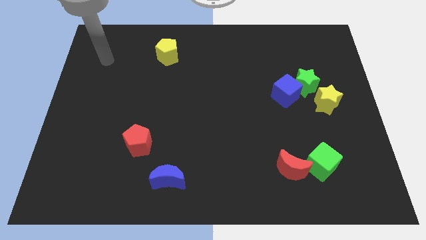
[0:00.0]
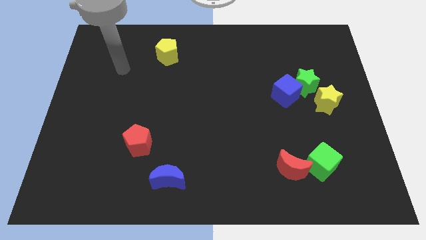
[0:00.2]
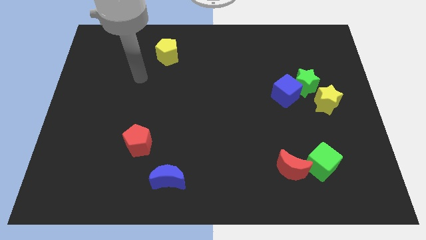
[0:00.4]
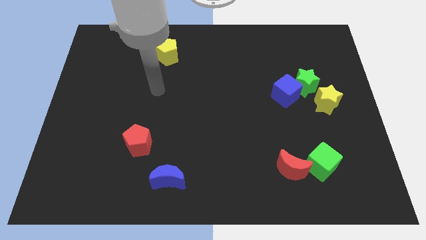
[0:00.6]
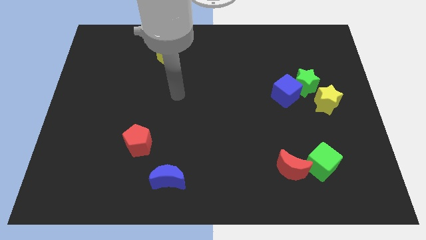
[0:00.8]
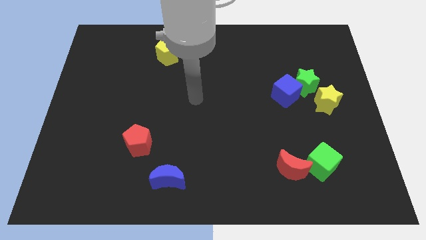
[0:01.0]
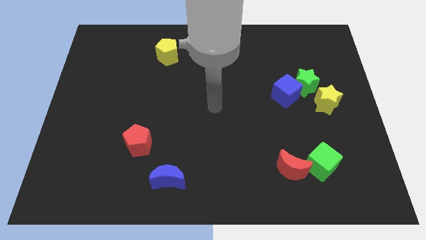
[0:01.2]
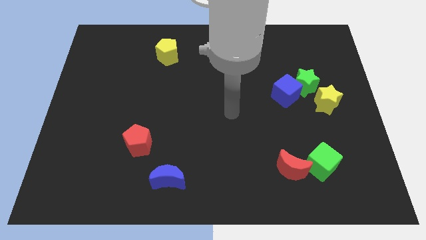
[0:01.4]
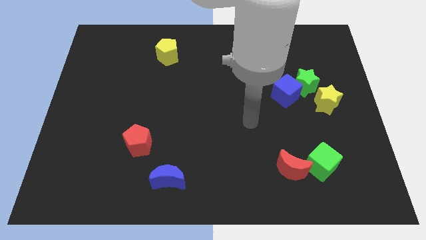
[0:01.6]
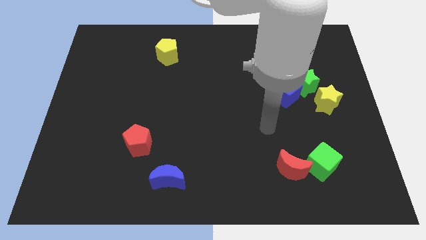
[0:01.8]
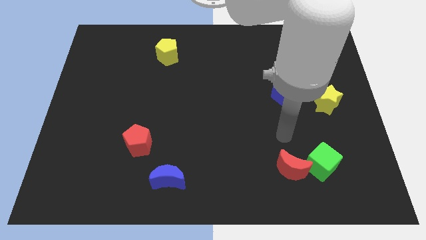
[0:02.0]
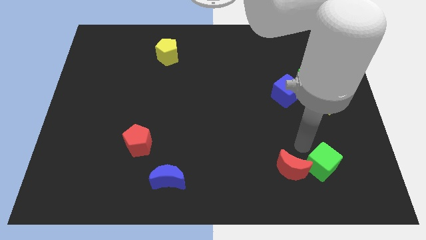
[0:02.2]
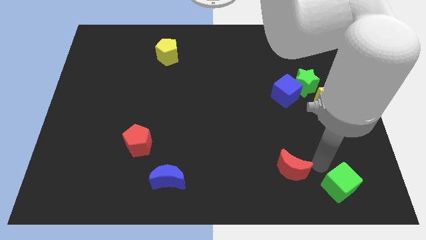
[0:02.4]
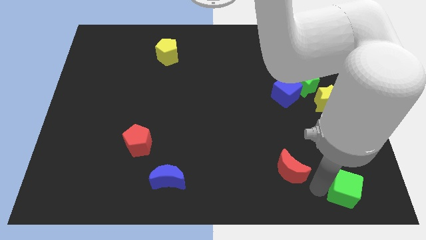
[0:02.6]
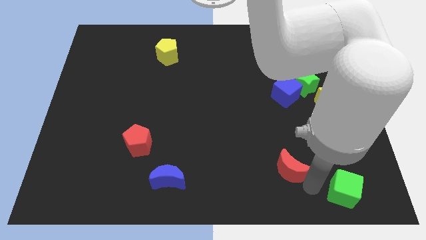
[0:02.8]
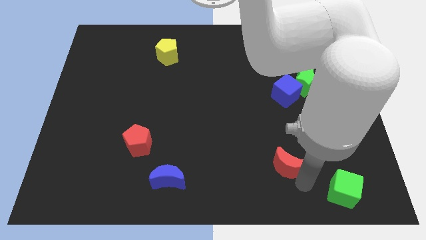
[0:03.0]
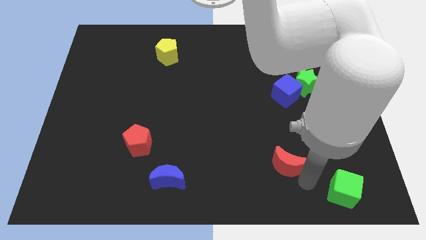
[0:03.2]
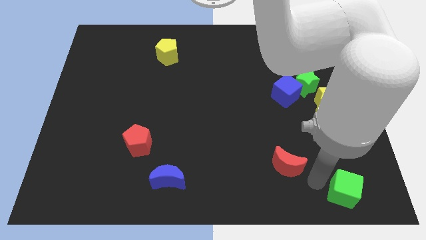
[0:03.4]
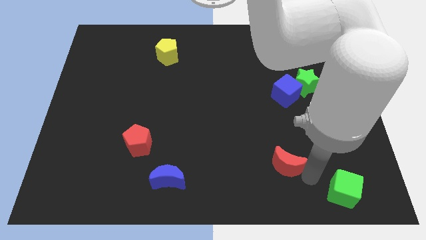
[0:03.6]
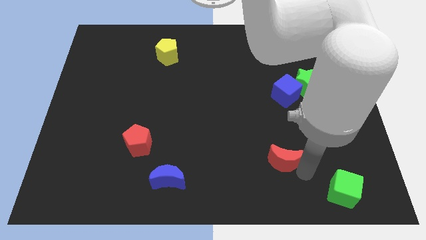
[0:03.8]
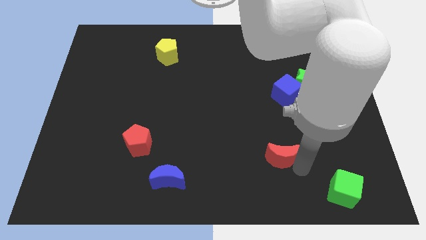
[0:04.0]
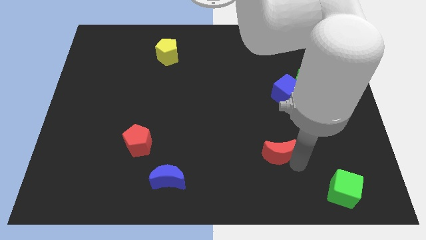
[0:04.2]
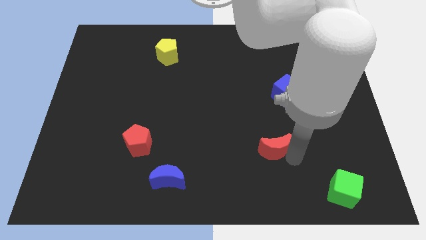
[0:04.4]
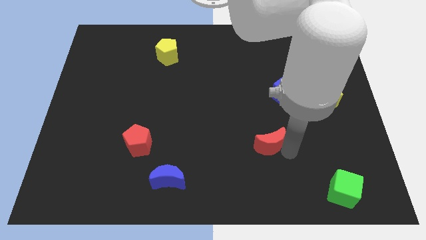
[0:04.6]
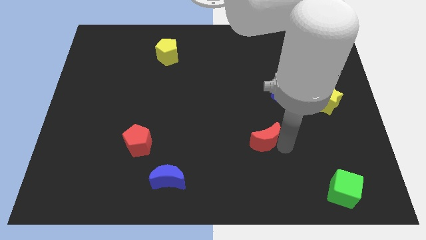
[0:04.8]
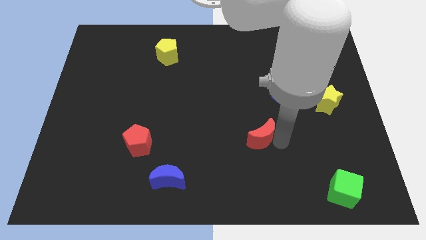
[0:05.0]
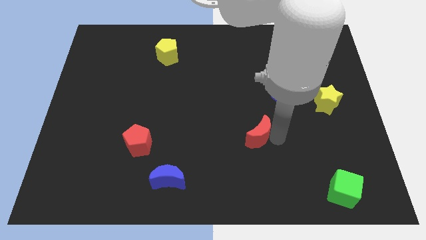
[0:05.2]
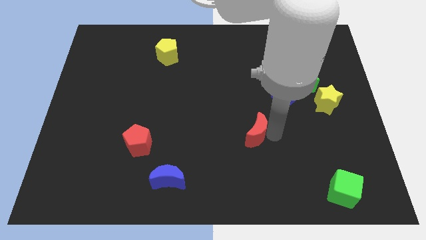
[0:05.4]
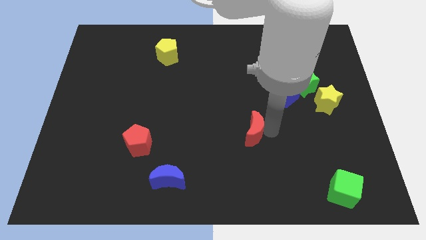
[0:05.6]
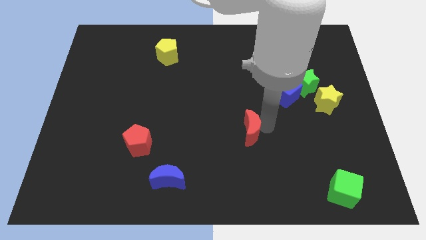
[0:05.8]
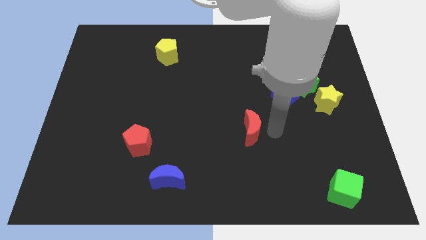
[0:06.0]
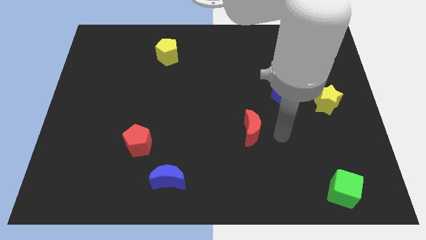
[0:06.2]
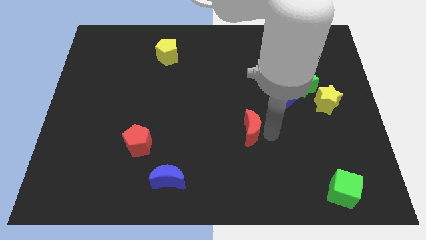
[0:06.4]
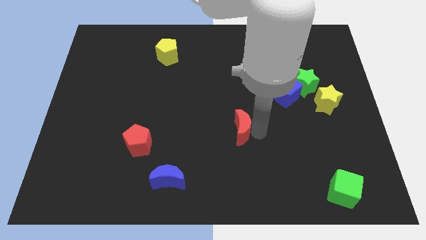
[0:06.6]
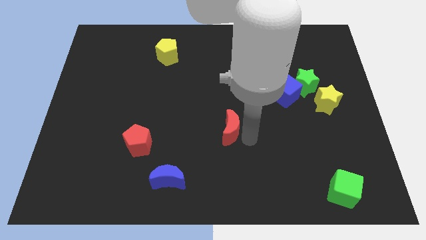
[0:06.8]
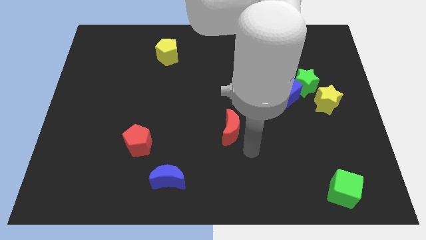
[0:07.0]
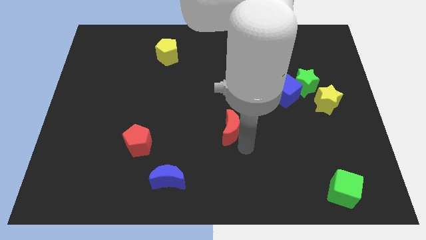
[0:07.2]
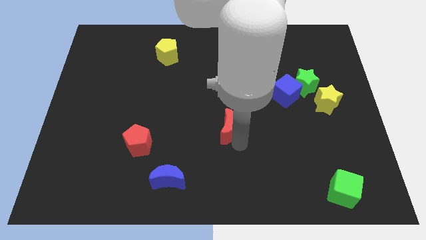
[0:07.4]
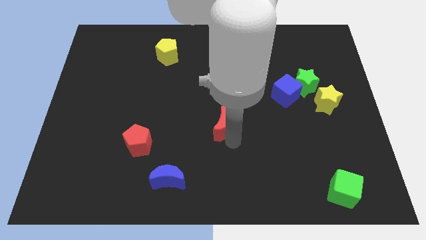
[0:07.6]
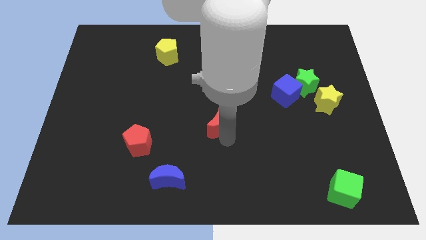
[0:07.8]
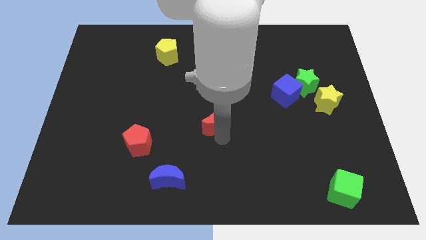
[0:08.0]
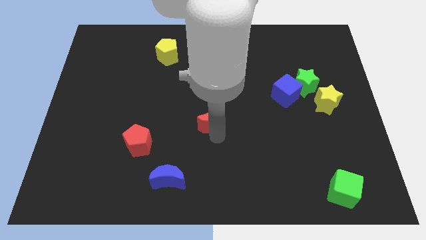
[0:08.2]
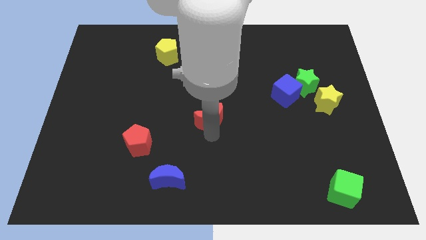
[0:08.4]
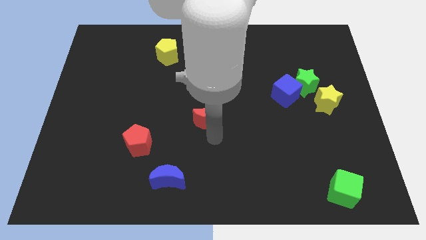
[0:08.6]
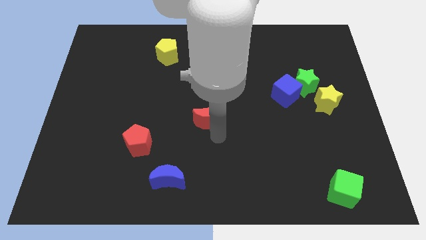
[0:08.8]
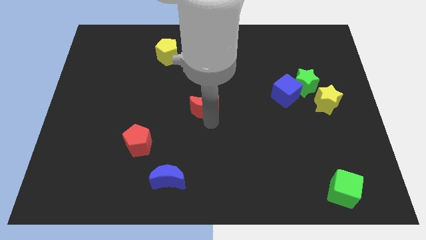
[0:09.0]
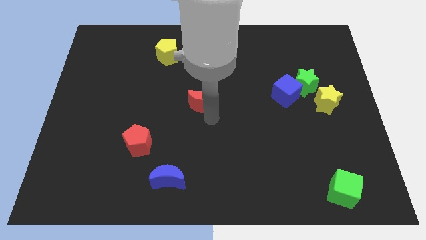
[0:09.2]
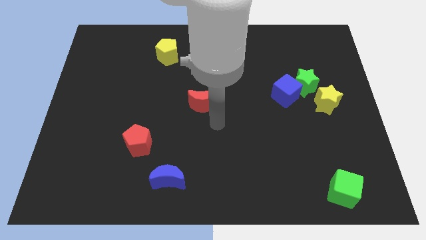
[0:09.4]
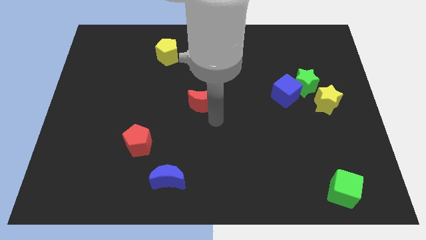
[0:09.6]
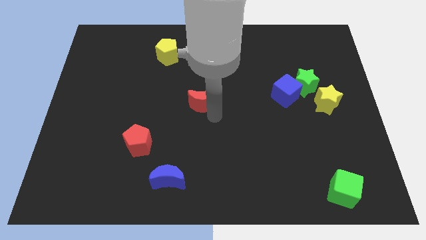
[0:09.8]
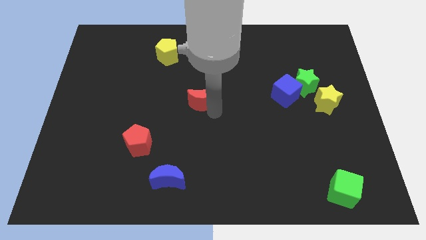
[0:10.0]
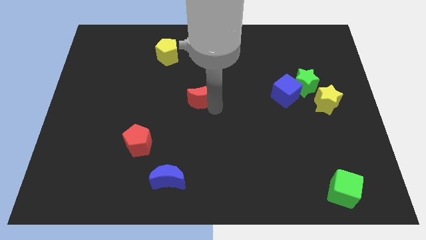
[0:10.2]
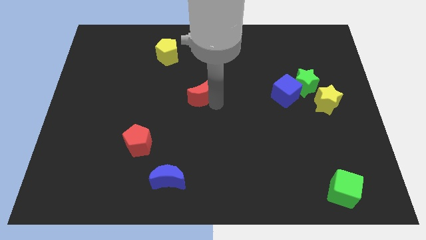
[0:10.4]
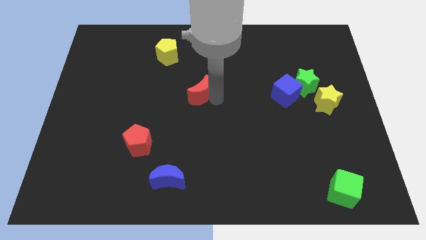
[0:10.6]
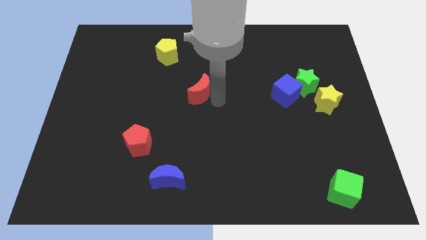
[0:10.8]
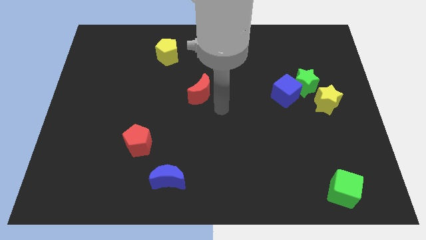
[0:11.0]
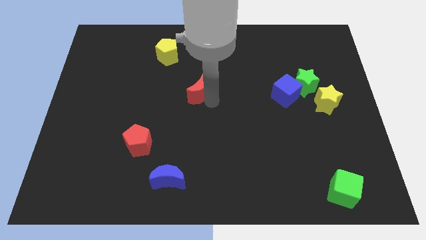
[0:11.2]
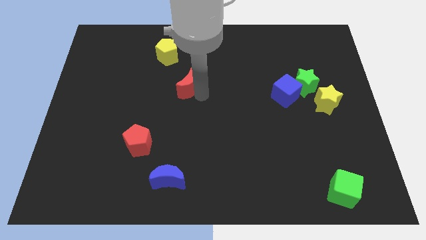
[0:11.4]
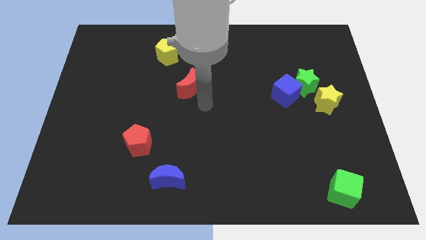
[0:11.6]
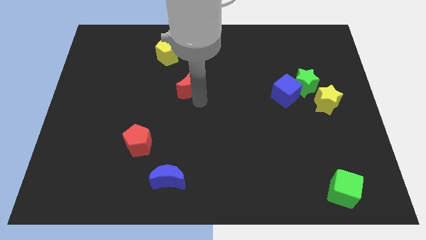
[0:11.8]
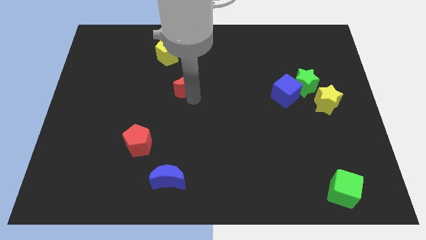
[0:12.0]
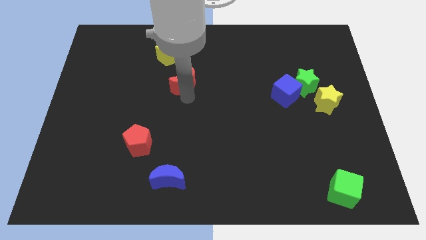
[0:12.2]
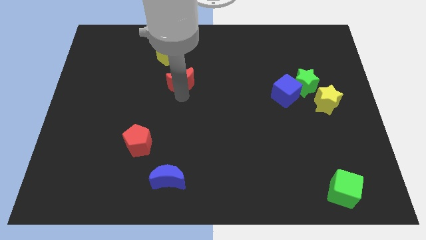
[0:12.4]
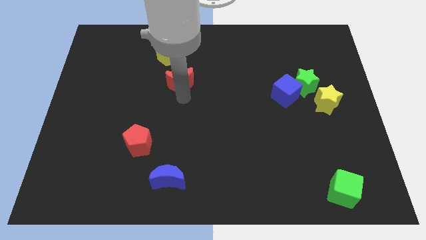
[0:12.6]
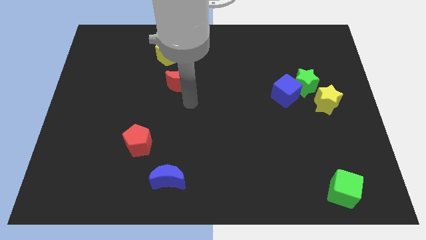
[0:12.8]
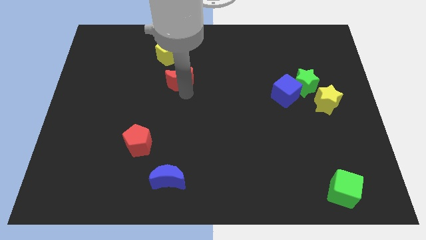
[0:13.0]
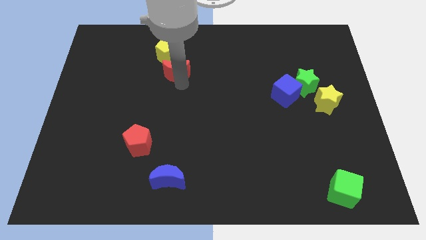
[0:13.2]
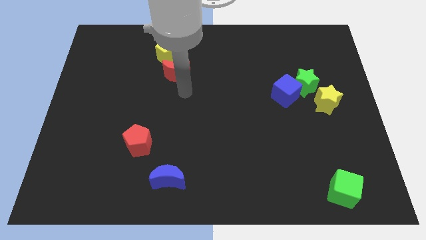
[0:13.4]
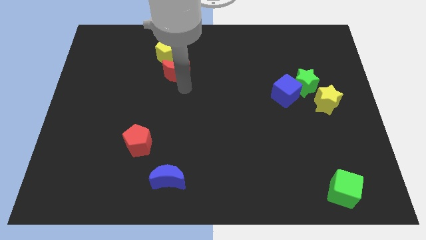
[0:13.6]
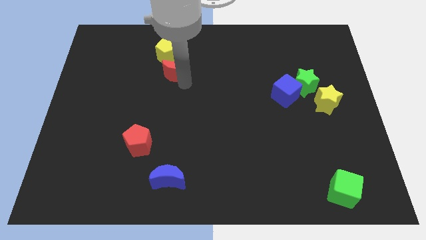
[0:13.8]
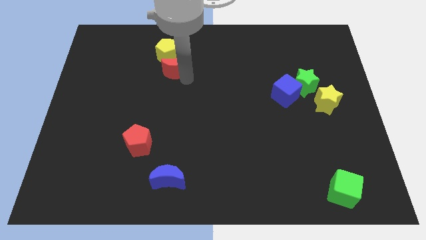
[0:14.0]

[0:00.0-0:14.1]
move the red moon to the yellow pentagon

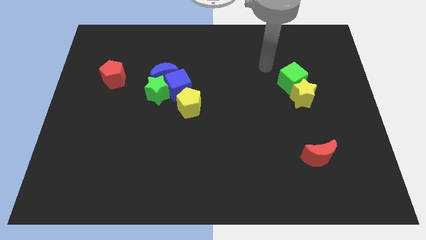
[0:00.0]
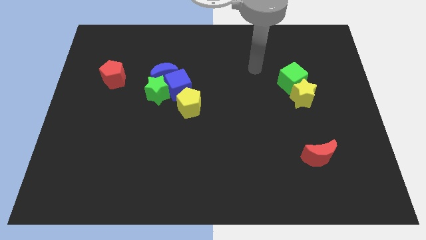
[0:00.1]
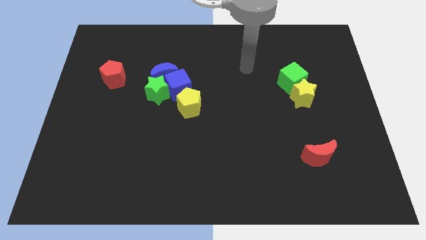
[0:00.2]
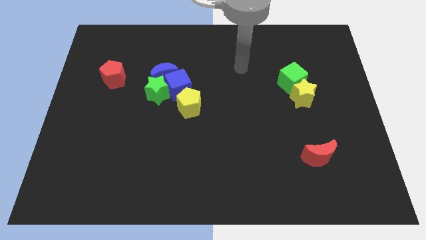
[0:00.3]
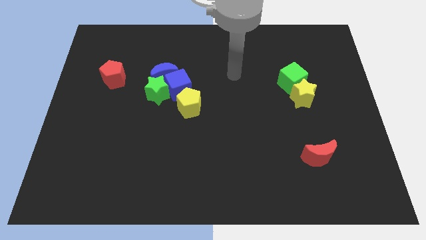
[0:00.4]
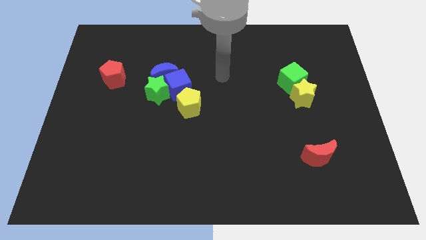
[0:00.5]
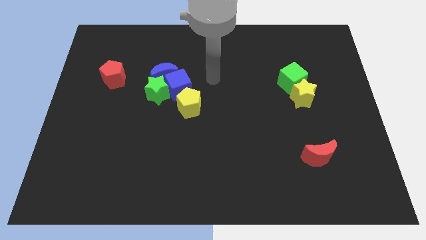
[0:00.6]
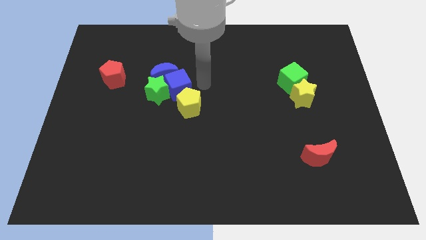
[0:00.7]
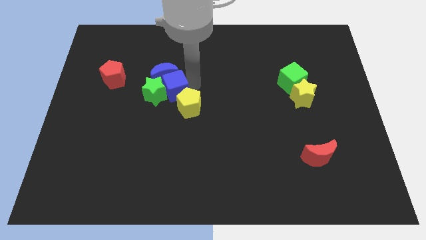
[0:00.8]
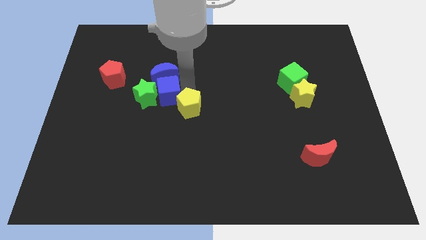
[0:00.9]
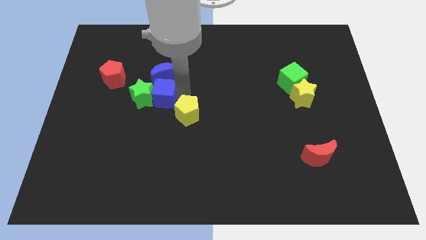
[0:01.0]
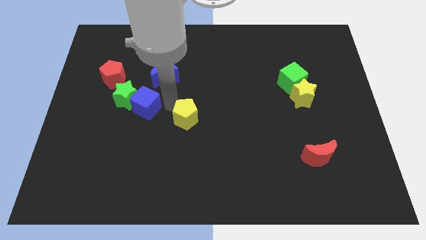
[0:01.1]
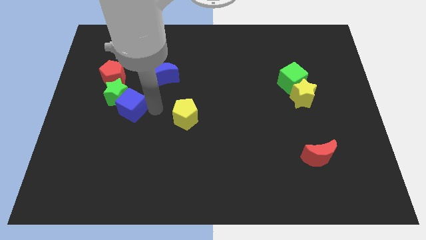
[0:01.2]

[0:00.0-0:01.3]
slide the green star next to the red pentagon
